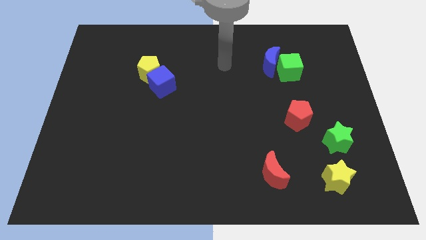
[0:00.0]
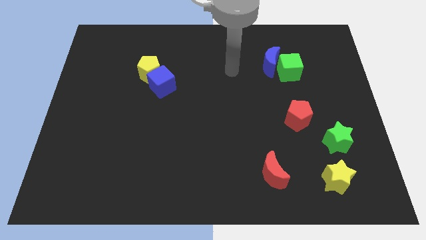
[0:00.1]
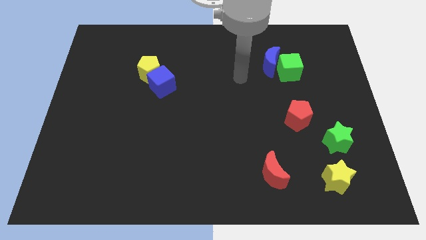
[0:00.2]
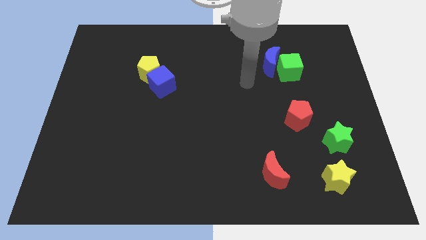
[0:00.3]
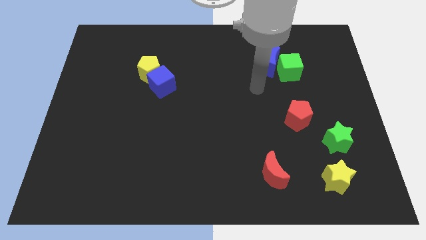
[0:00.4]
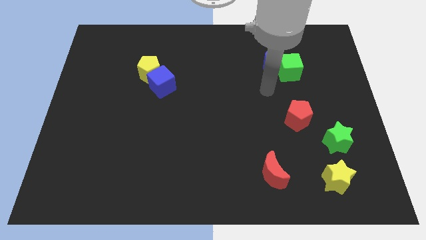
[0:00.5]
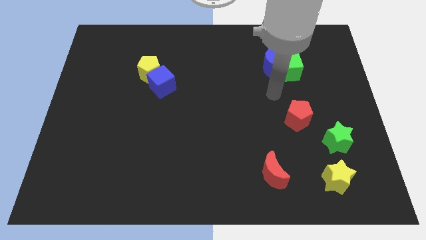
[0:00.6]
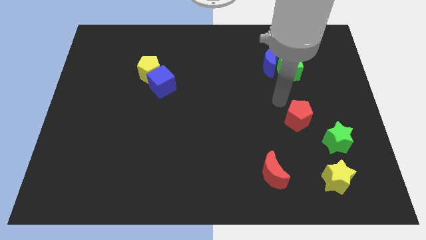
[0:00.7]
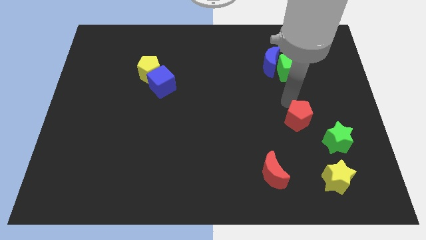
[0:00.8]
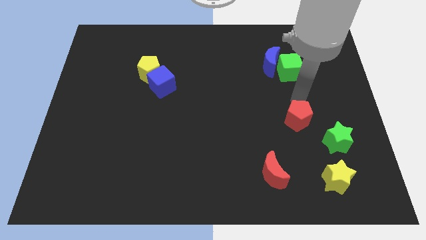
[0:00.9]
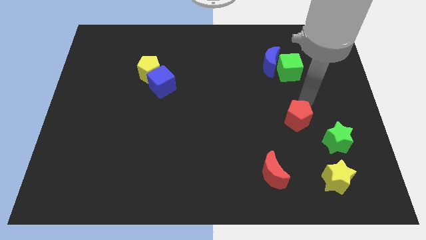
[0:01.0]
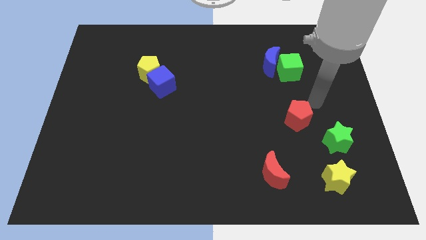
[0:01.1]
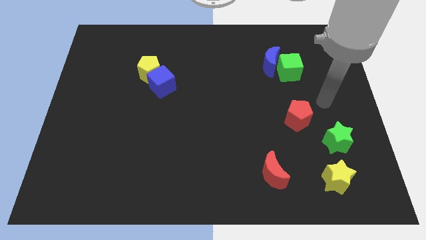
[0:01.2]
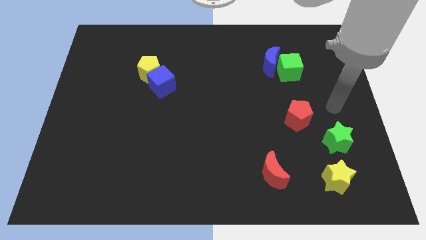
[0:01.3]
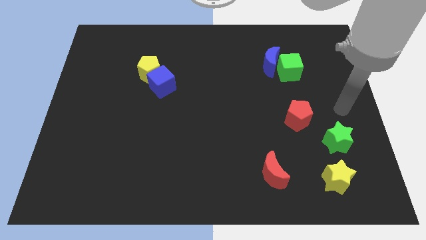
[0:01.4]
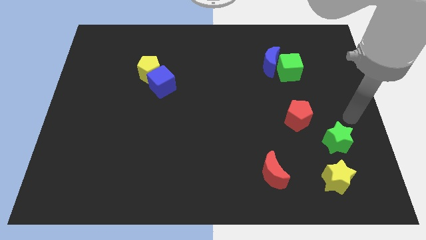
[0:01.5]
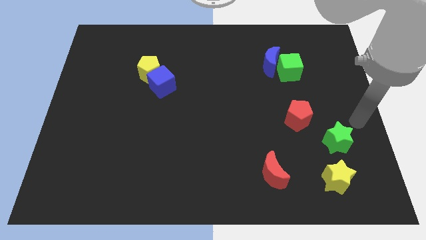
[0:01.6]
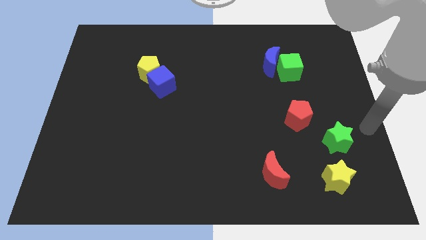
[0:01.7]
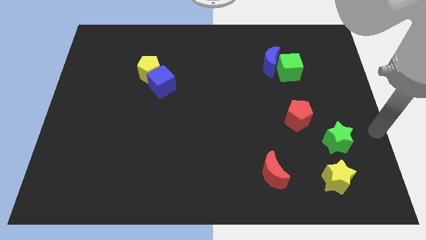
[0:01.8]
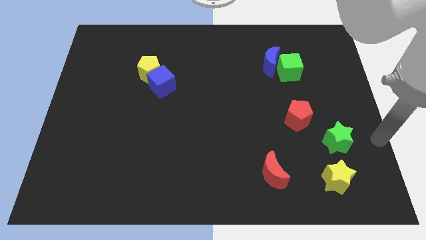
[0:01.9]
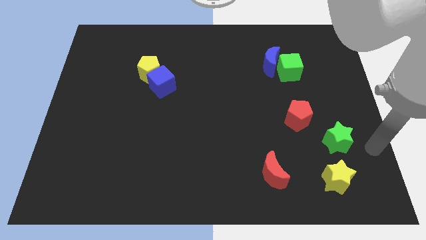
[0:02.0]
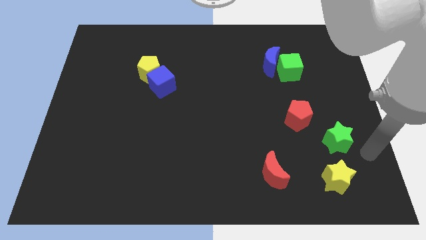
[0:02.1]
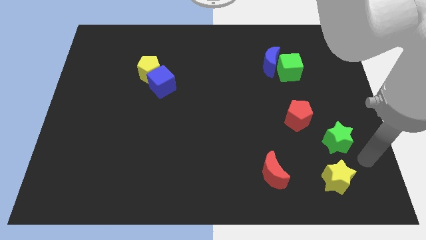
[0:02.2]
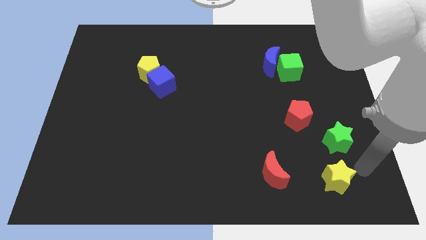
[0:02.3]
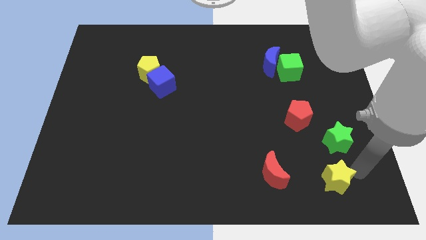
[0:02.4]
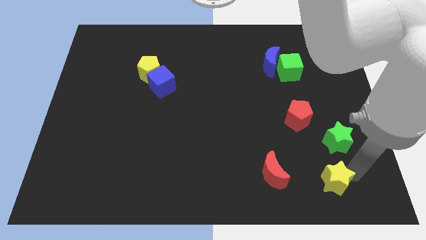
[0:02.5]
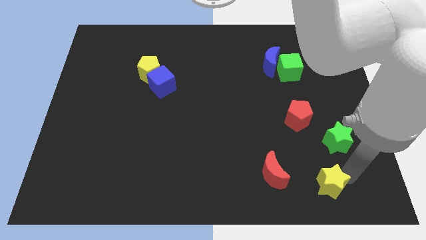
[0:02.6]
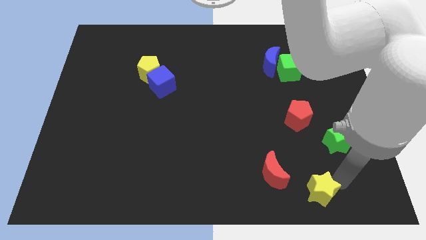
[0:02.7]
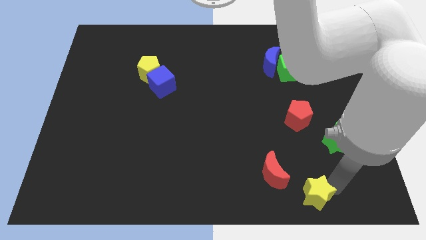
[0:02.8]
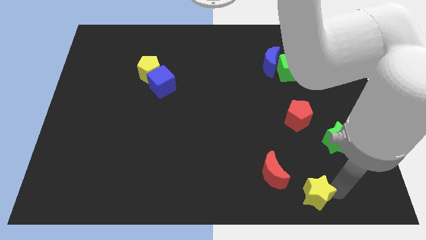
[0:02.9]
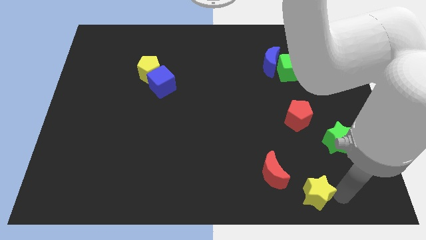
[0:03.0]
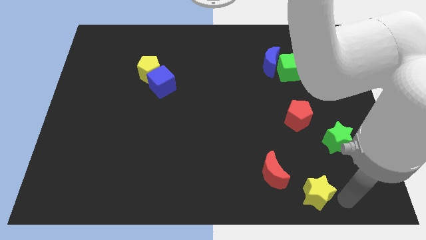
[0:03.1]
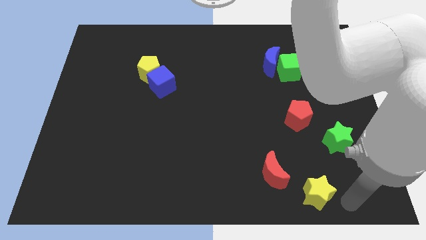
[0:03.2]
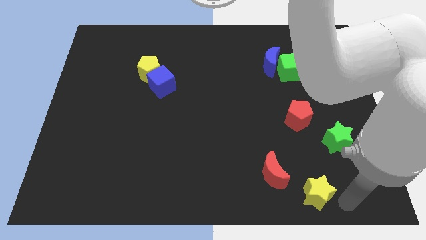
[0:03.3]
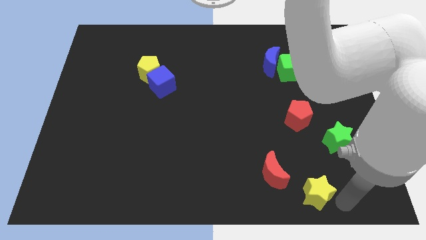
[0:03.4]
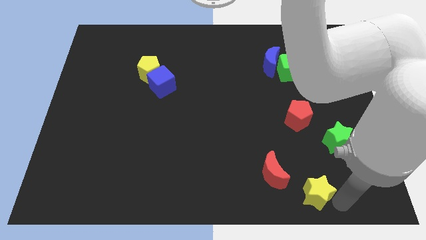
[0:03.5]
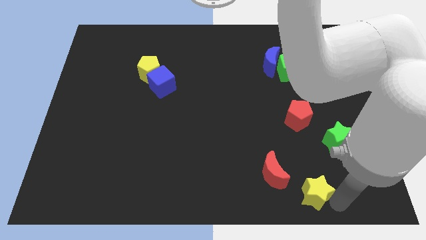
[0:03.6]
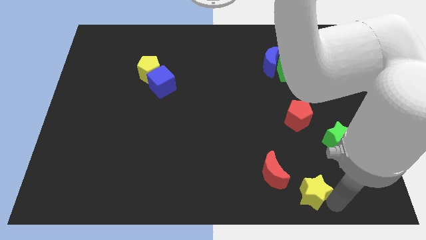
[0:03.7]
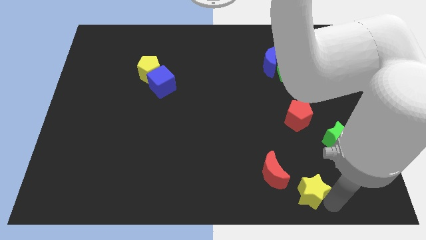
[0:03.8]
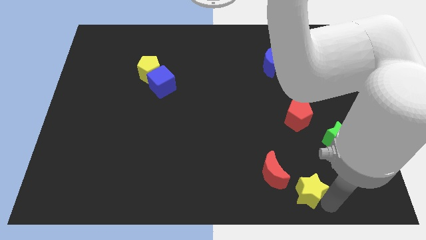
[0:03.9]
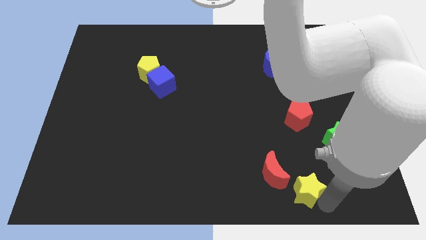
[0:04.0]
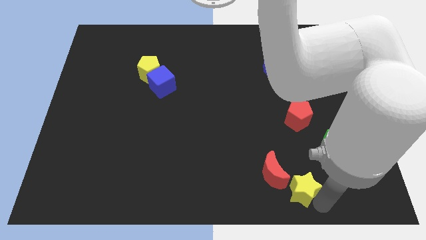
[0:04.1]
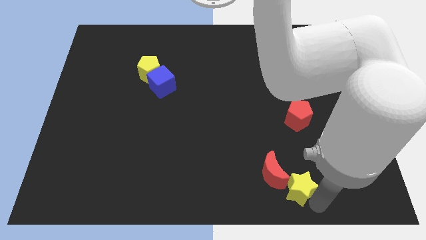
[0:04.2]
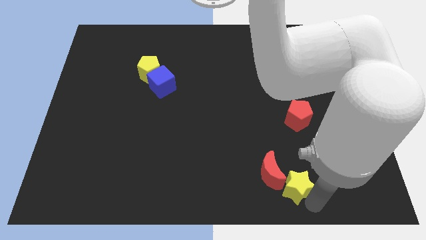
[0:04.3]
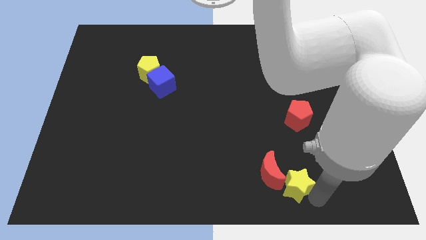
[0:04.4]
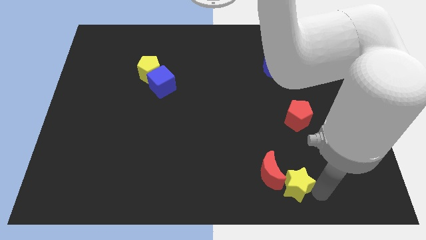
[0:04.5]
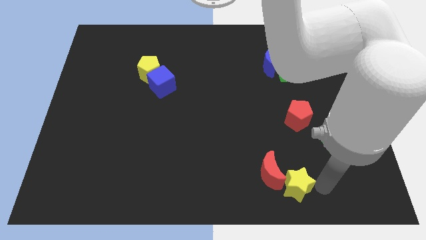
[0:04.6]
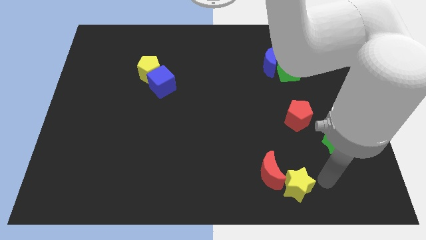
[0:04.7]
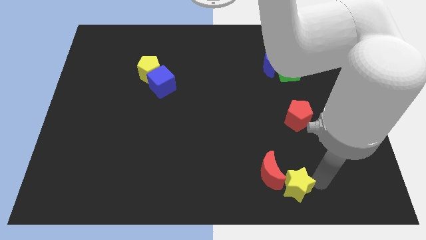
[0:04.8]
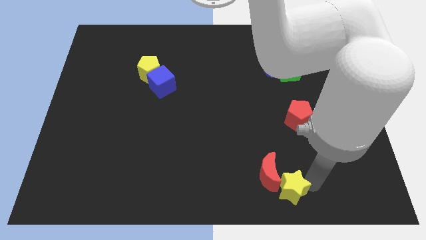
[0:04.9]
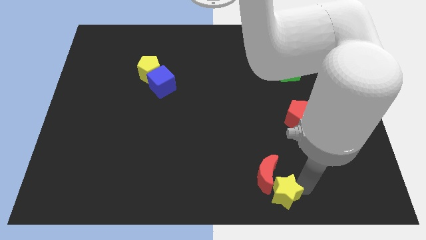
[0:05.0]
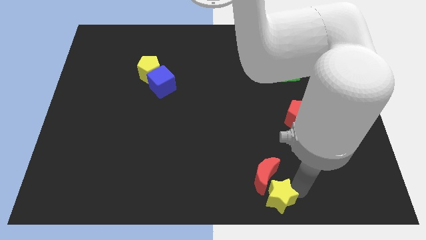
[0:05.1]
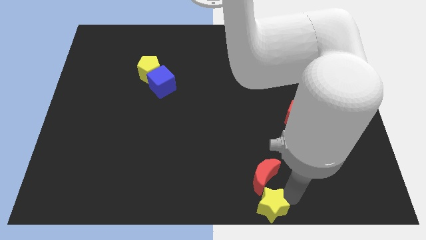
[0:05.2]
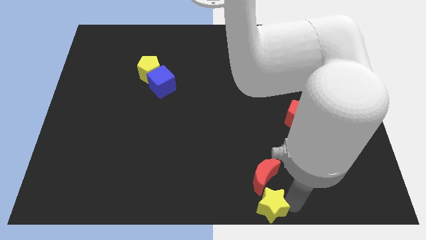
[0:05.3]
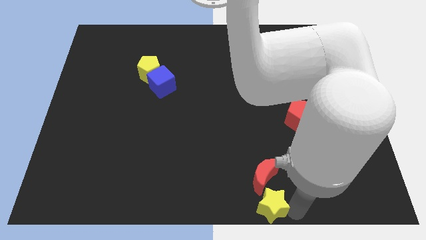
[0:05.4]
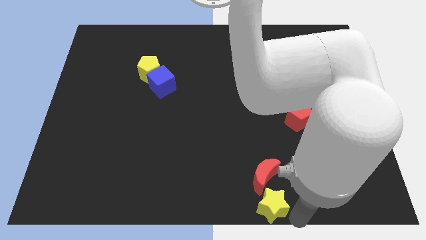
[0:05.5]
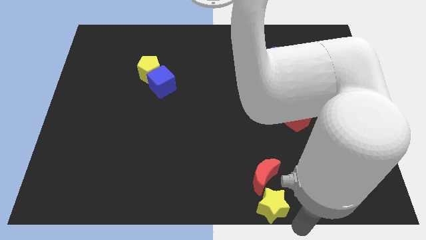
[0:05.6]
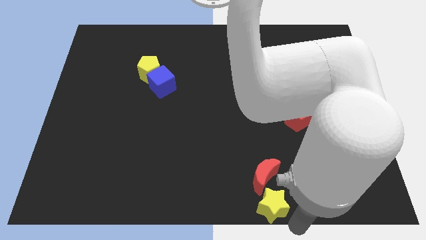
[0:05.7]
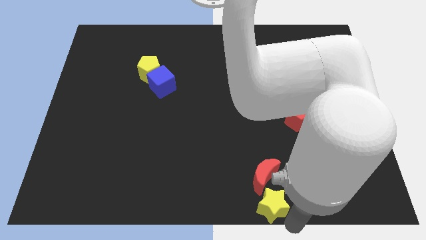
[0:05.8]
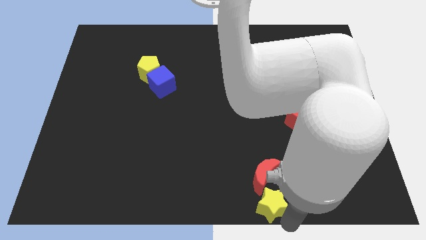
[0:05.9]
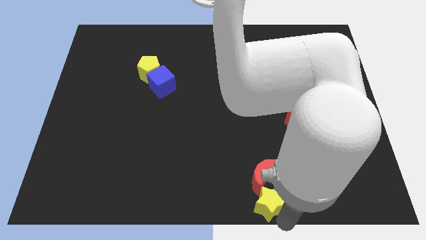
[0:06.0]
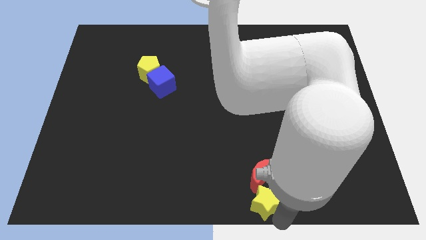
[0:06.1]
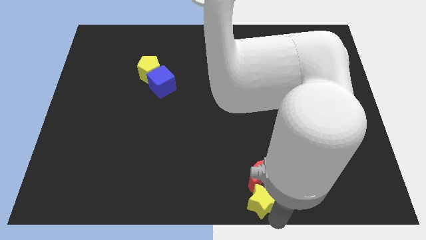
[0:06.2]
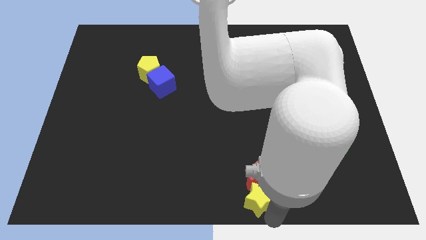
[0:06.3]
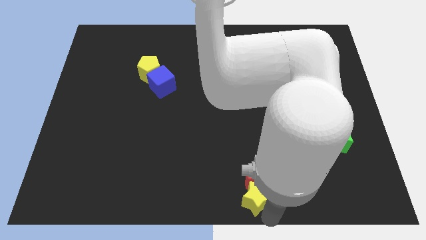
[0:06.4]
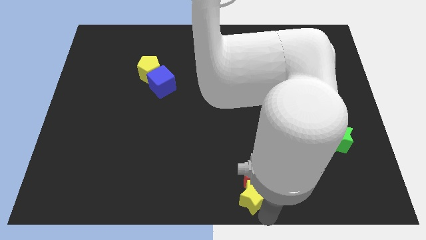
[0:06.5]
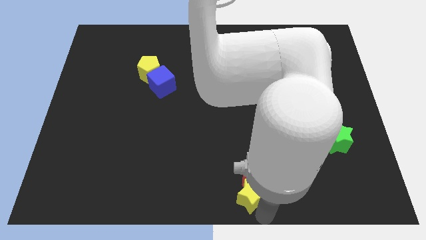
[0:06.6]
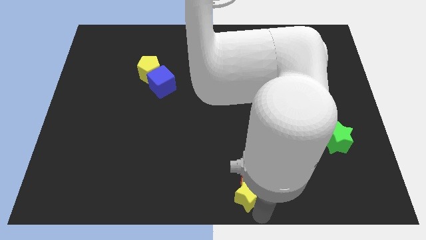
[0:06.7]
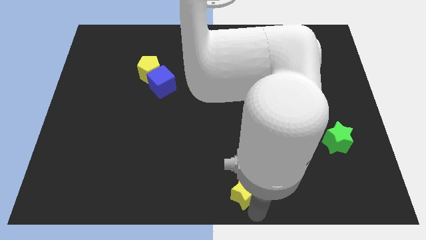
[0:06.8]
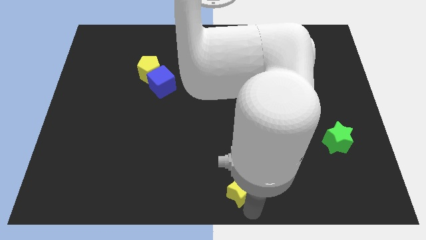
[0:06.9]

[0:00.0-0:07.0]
push the yellow star to the left of the red moon
